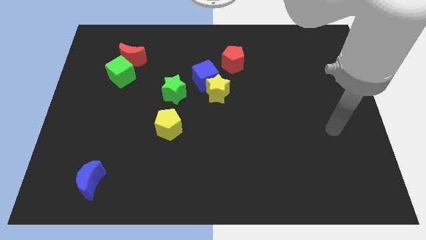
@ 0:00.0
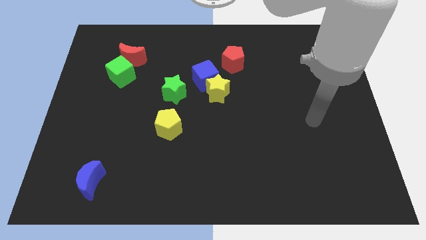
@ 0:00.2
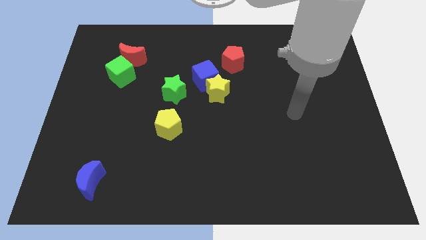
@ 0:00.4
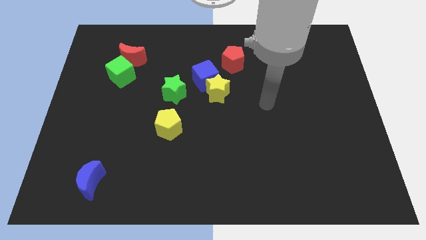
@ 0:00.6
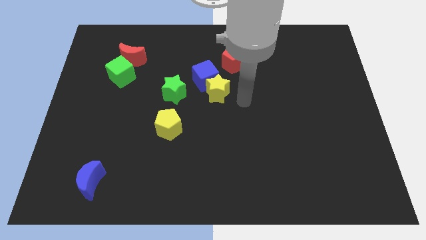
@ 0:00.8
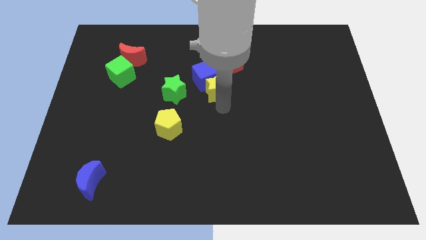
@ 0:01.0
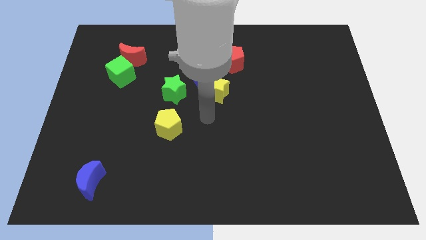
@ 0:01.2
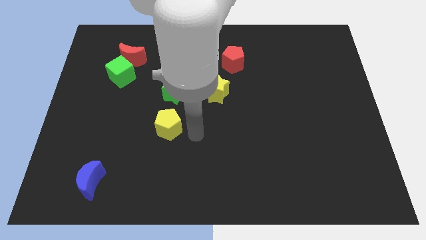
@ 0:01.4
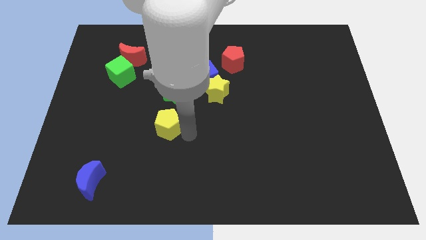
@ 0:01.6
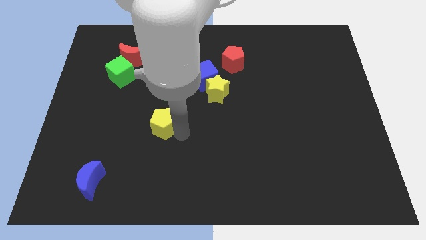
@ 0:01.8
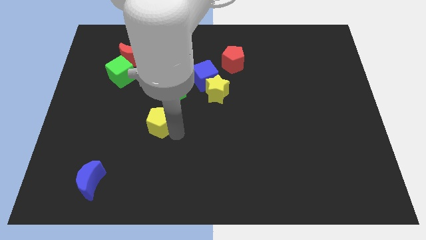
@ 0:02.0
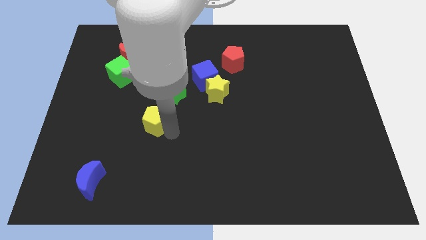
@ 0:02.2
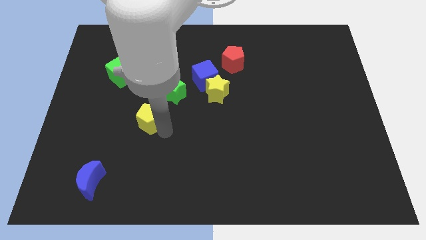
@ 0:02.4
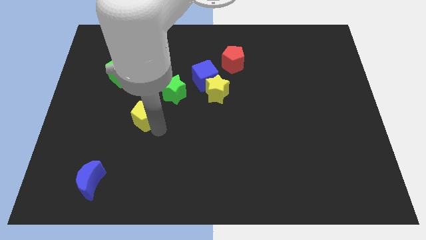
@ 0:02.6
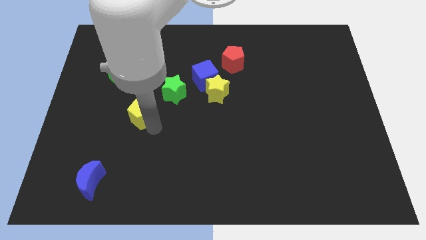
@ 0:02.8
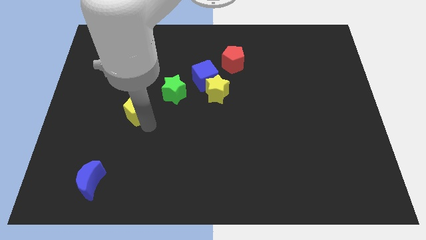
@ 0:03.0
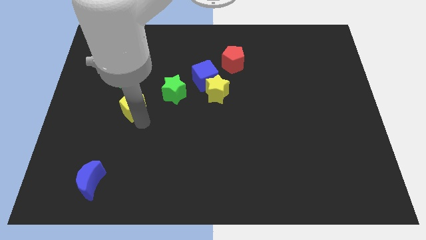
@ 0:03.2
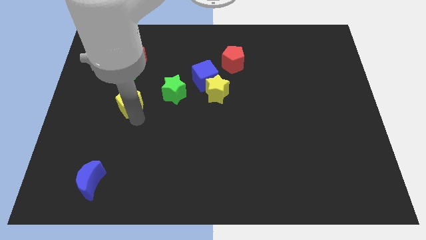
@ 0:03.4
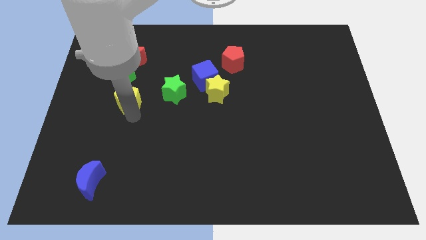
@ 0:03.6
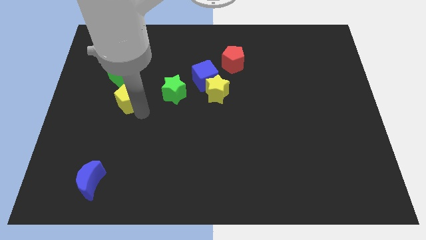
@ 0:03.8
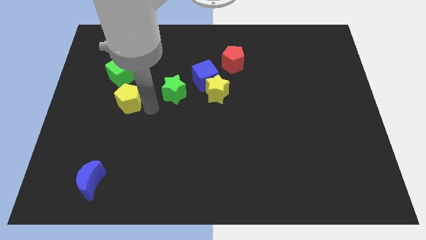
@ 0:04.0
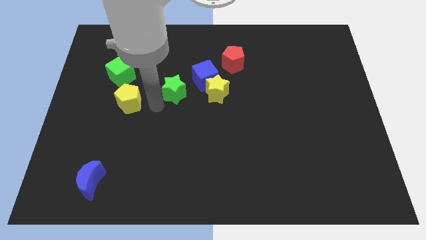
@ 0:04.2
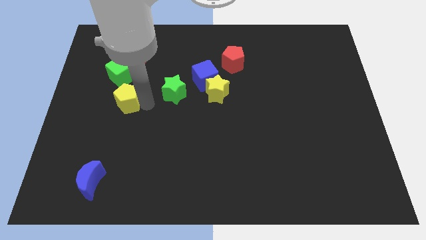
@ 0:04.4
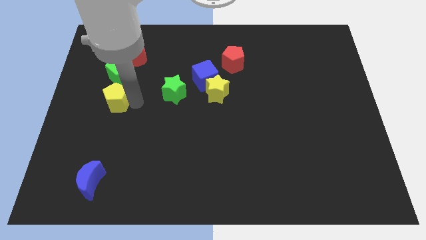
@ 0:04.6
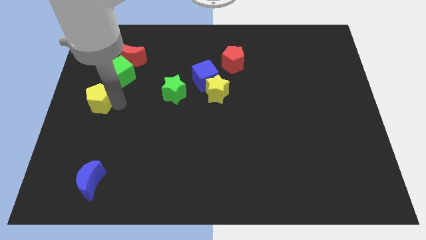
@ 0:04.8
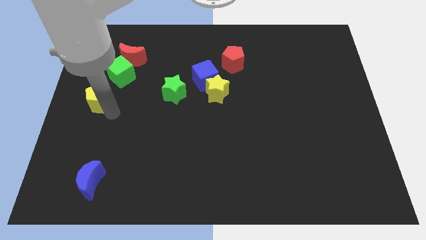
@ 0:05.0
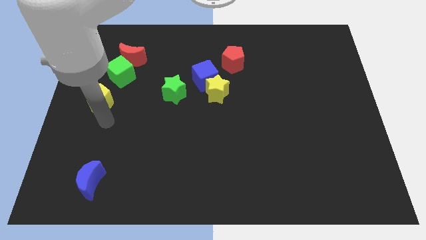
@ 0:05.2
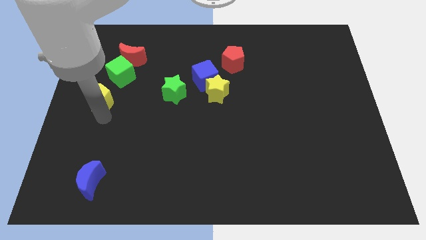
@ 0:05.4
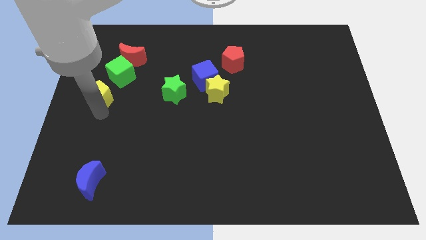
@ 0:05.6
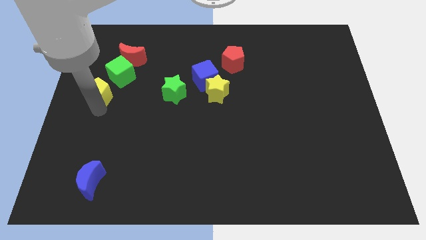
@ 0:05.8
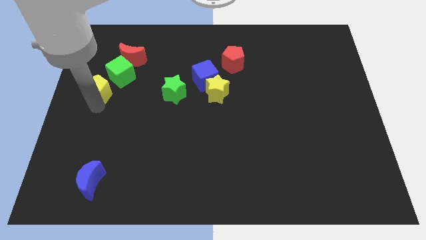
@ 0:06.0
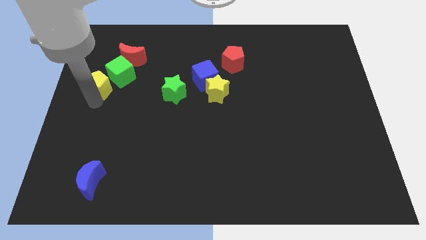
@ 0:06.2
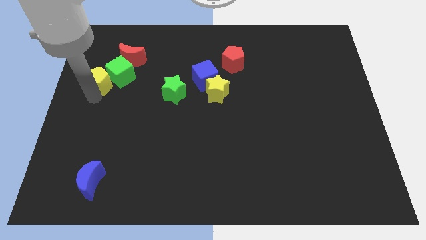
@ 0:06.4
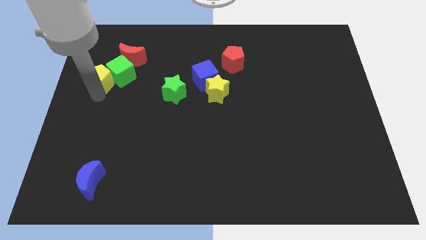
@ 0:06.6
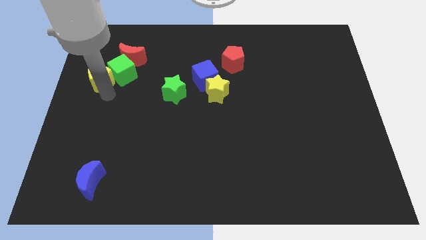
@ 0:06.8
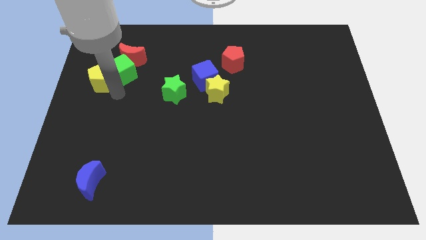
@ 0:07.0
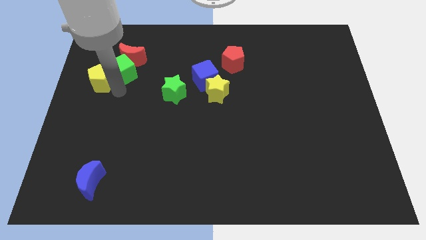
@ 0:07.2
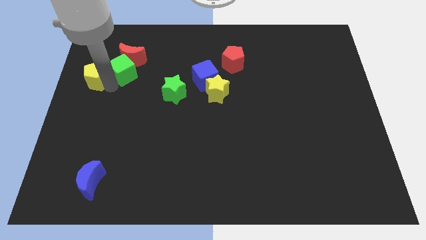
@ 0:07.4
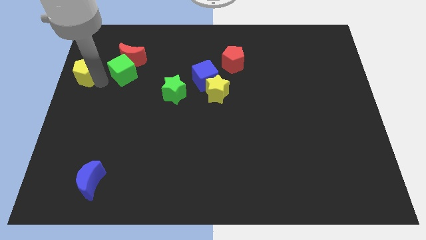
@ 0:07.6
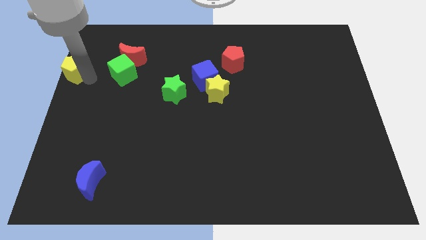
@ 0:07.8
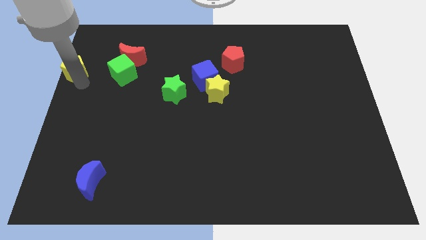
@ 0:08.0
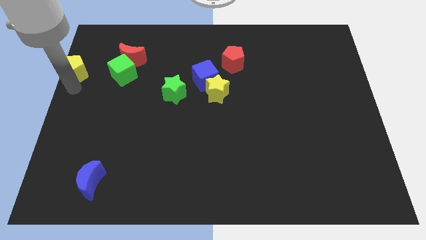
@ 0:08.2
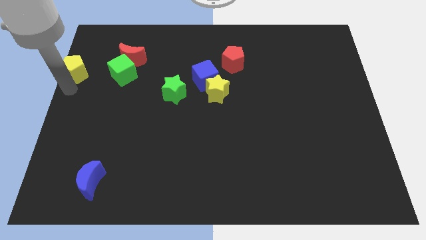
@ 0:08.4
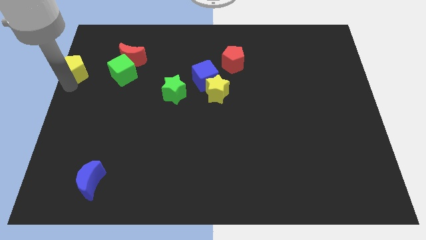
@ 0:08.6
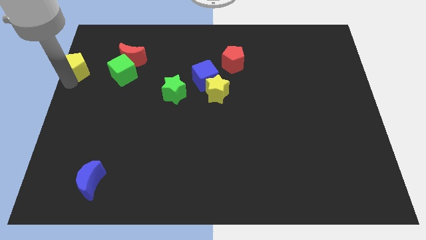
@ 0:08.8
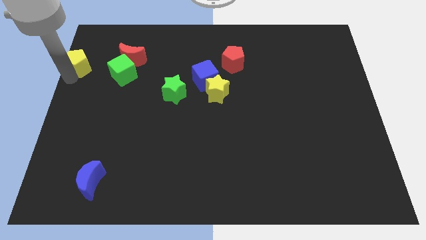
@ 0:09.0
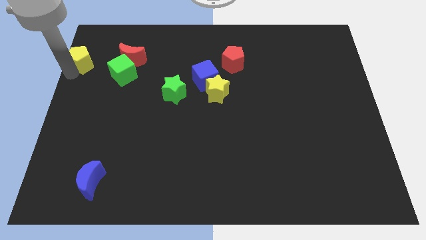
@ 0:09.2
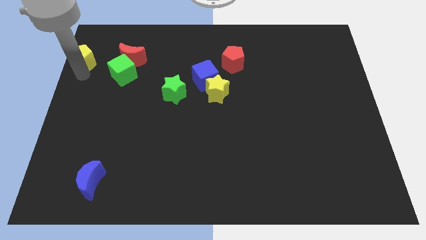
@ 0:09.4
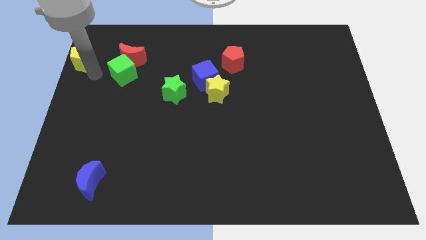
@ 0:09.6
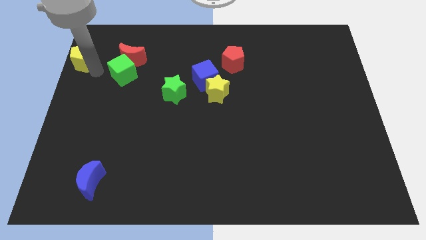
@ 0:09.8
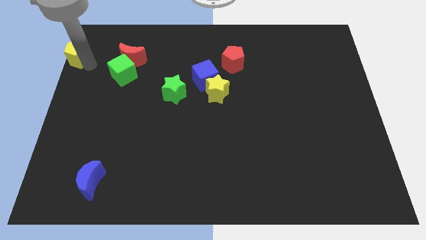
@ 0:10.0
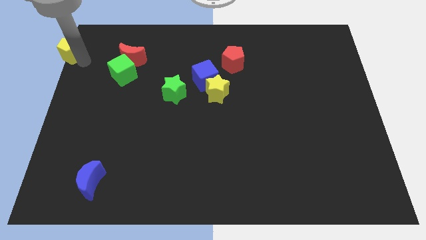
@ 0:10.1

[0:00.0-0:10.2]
push the yellow pentagon to the top left of the board
